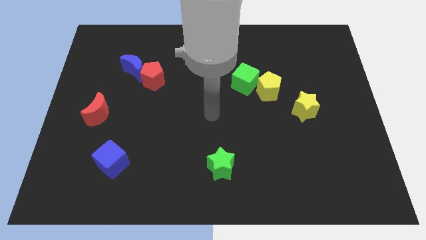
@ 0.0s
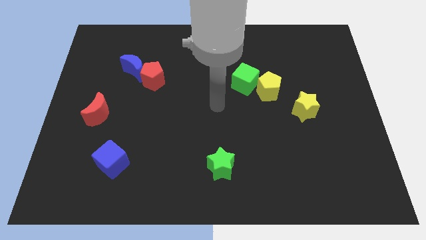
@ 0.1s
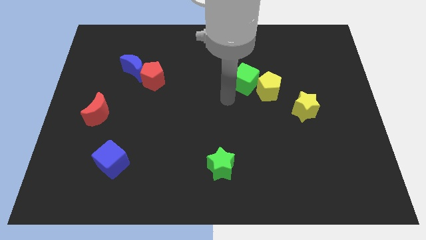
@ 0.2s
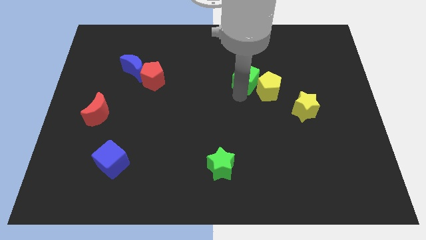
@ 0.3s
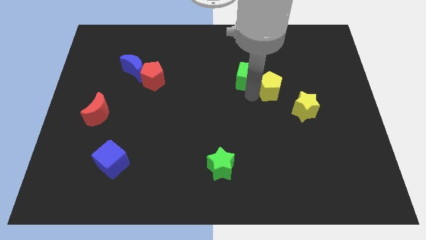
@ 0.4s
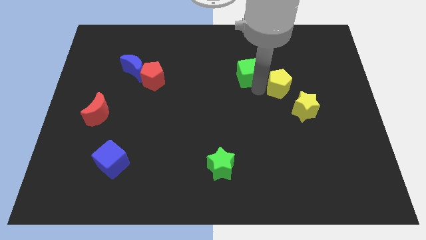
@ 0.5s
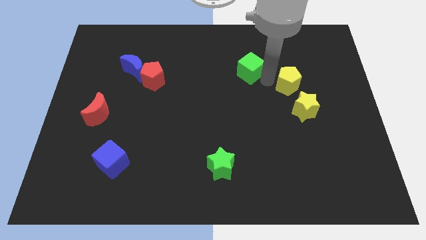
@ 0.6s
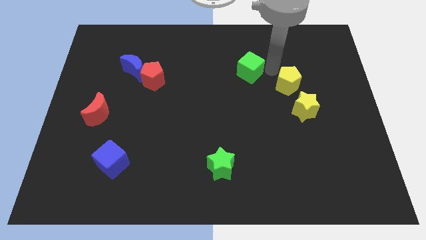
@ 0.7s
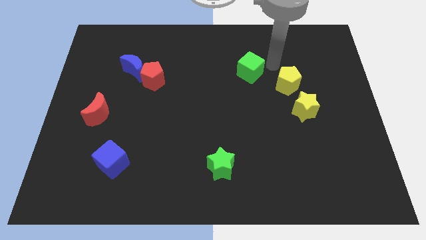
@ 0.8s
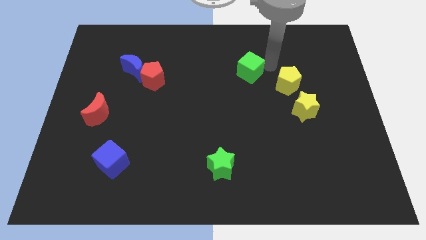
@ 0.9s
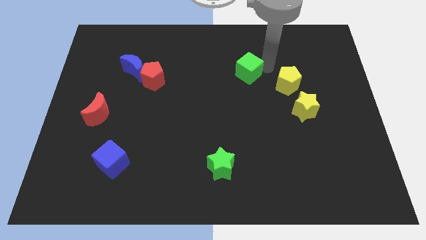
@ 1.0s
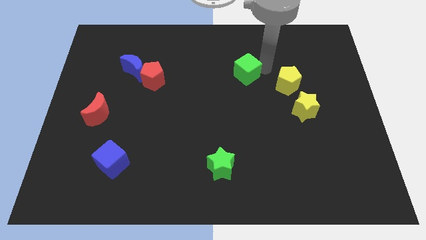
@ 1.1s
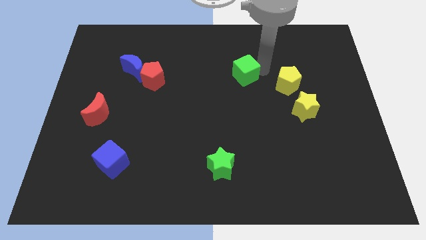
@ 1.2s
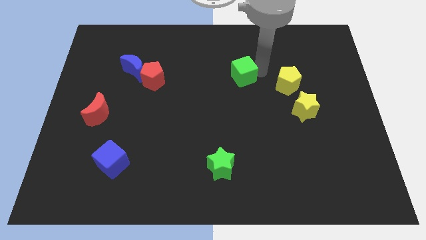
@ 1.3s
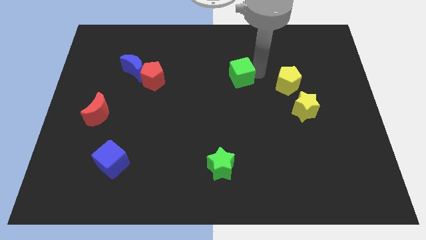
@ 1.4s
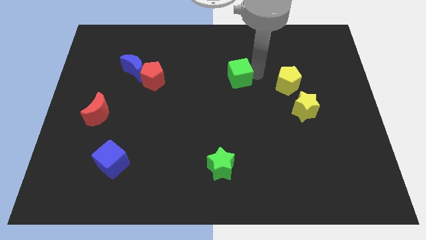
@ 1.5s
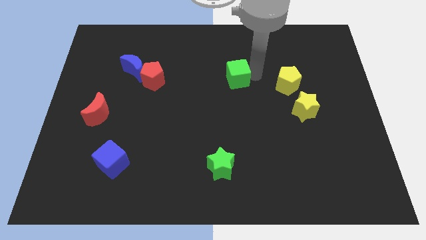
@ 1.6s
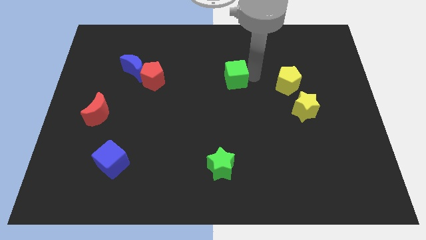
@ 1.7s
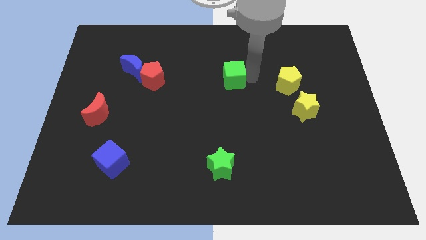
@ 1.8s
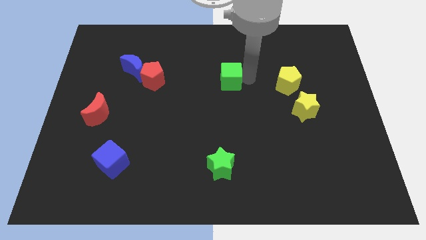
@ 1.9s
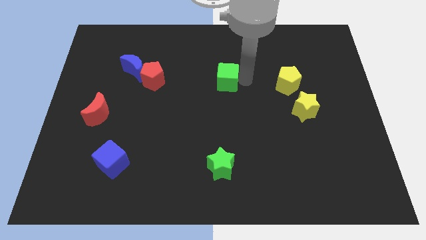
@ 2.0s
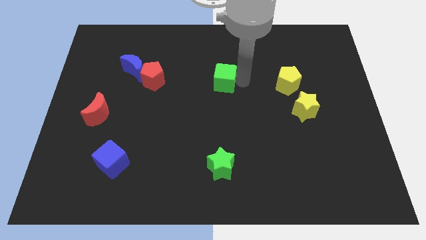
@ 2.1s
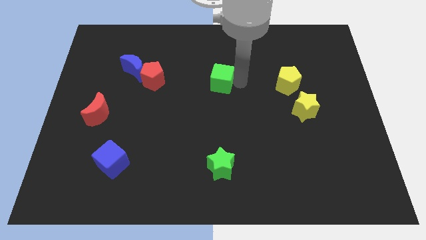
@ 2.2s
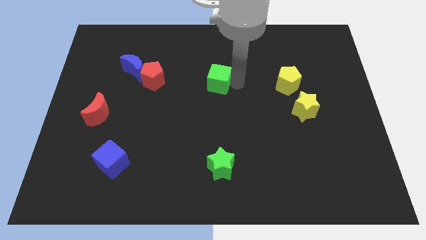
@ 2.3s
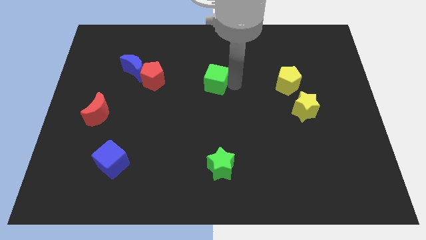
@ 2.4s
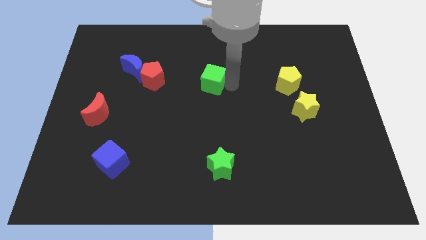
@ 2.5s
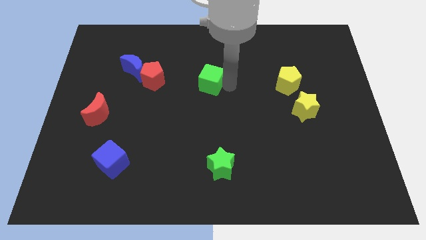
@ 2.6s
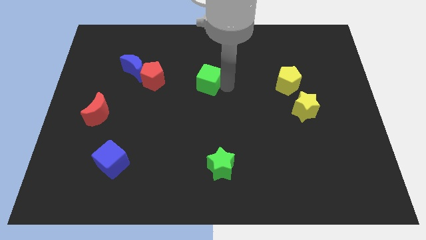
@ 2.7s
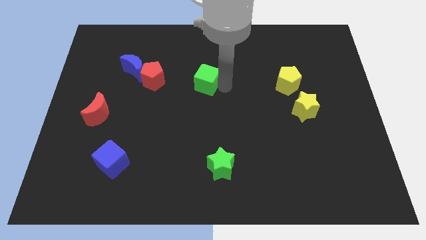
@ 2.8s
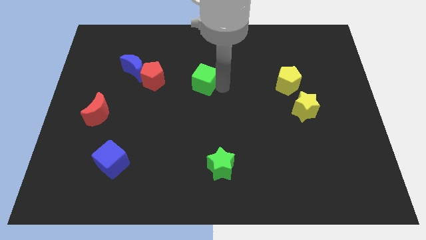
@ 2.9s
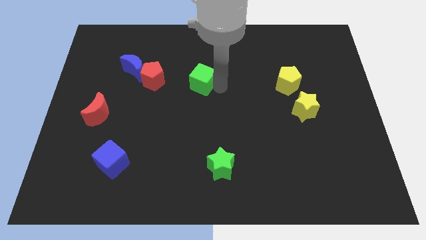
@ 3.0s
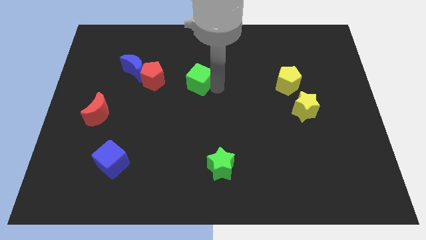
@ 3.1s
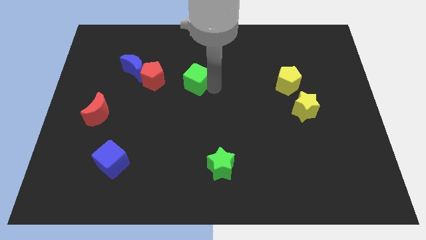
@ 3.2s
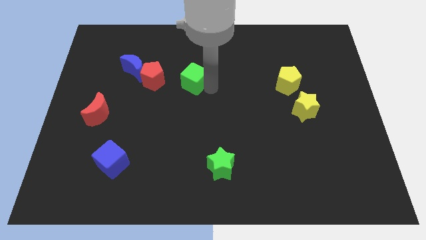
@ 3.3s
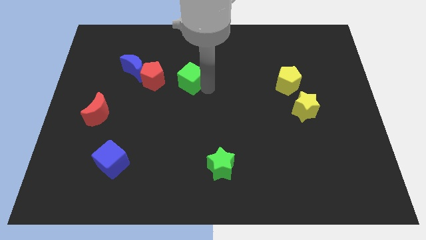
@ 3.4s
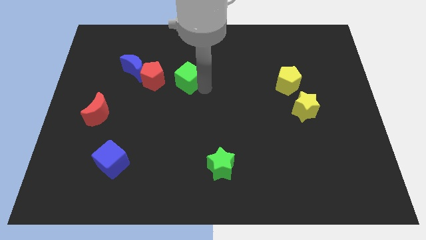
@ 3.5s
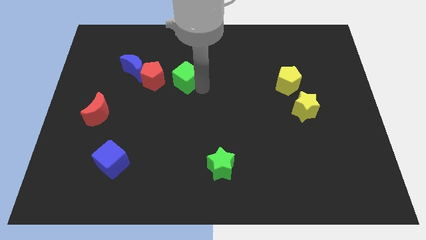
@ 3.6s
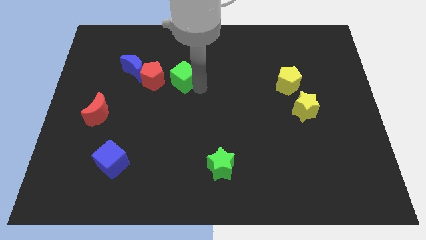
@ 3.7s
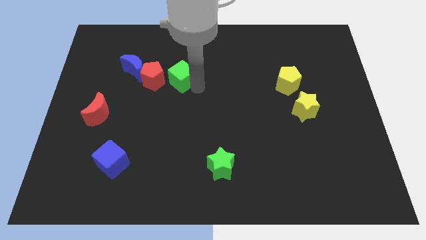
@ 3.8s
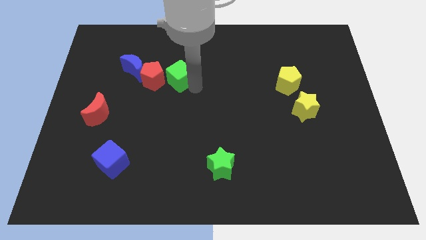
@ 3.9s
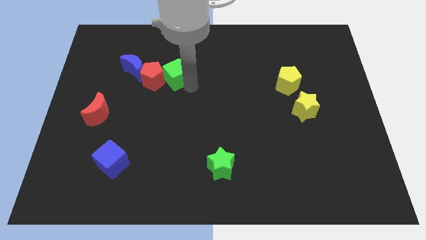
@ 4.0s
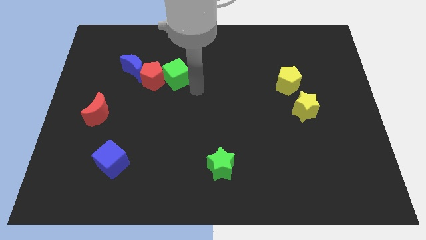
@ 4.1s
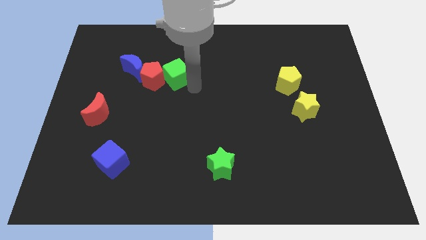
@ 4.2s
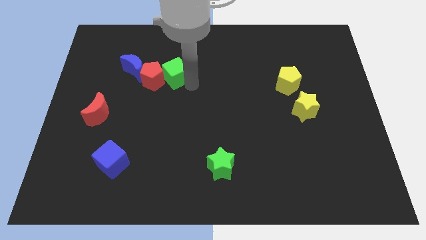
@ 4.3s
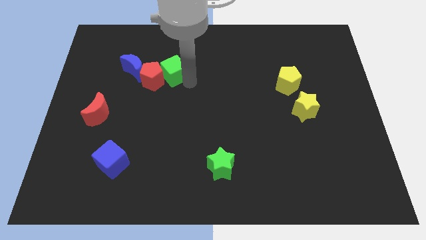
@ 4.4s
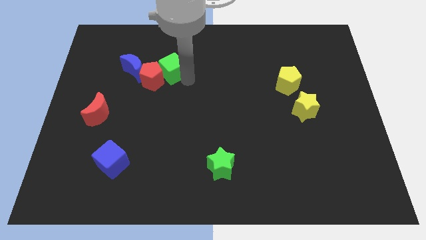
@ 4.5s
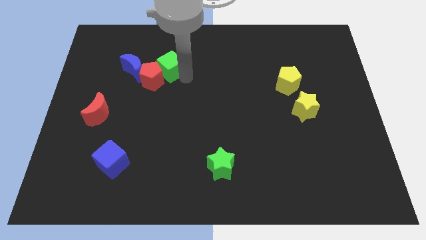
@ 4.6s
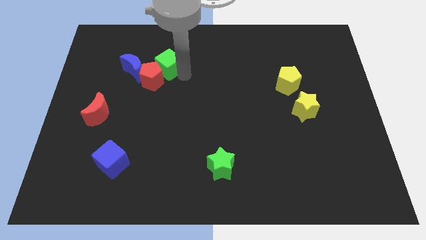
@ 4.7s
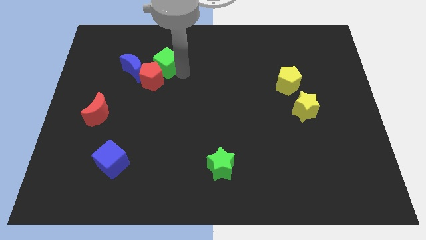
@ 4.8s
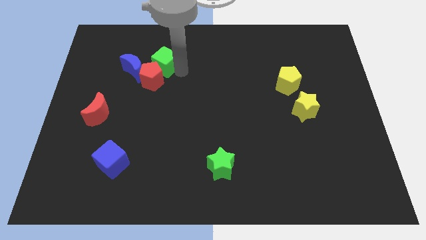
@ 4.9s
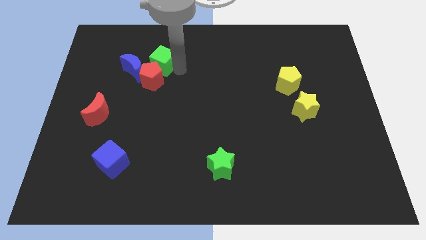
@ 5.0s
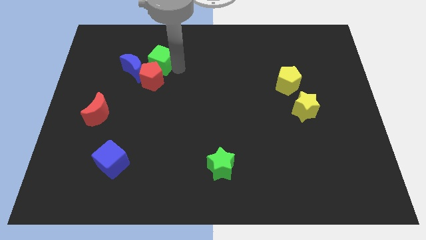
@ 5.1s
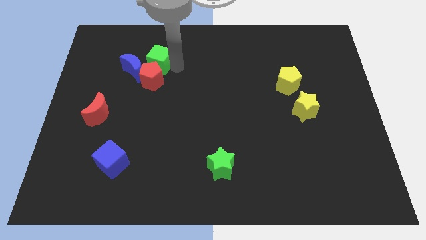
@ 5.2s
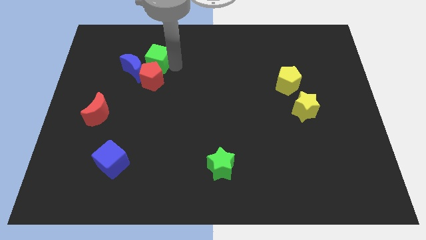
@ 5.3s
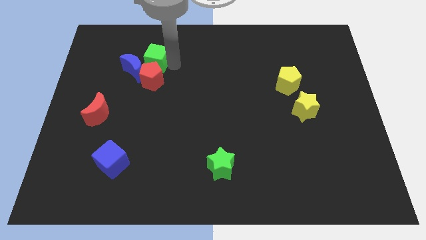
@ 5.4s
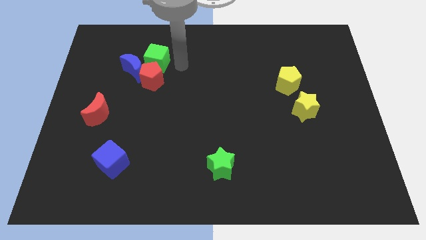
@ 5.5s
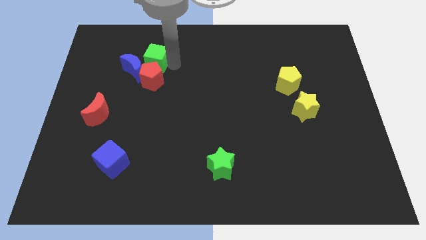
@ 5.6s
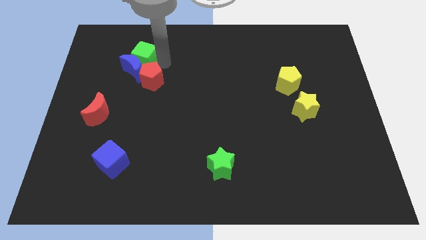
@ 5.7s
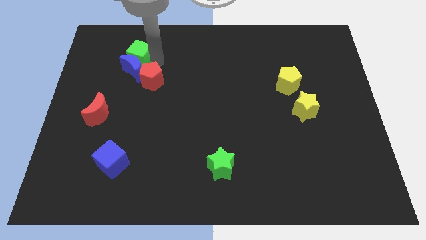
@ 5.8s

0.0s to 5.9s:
slide the green cube to the top left side of the blue moon

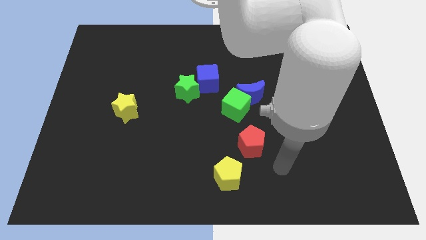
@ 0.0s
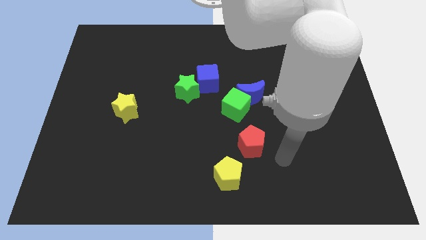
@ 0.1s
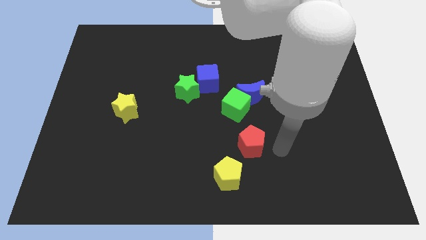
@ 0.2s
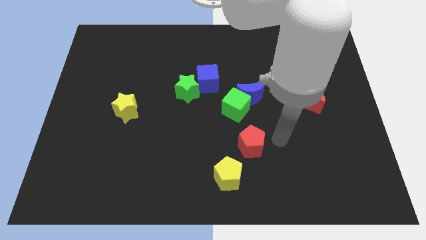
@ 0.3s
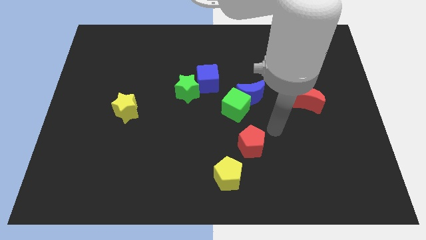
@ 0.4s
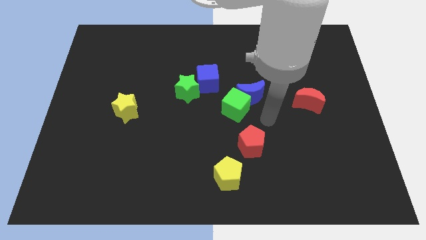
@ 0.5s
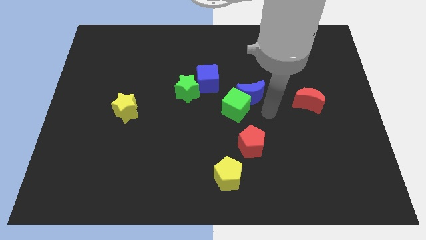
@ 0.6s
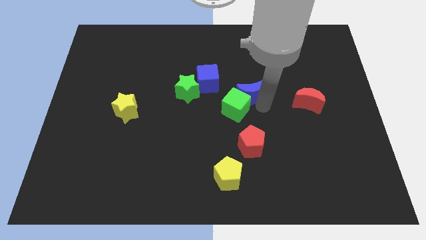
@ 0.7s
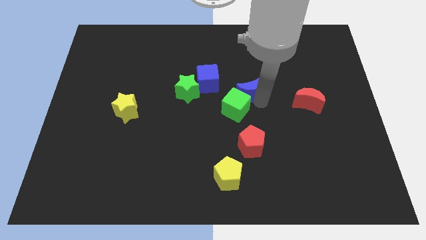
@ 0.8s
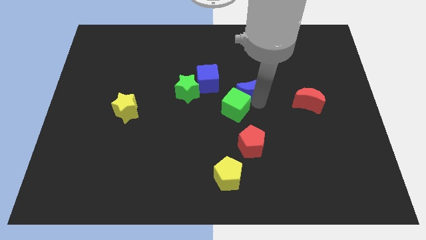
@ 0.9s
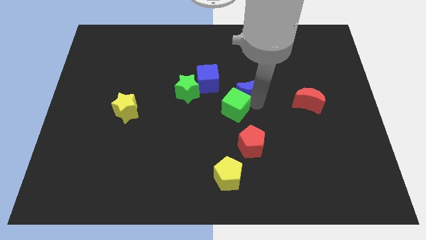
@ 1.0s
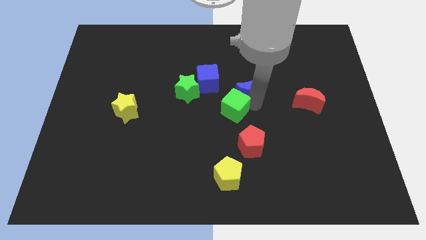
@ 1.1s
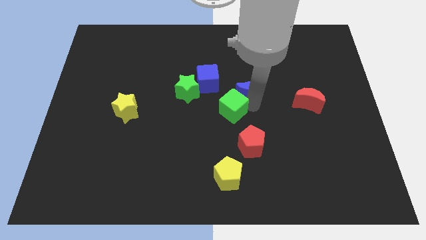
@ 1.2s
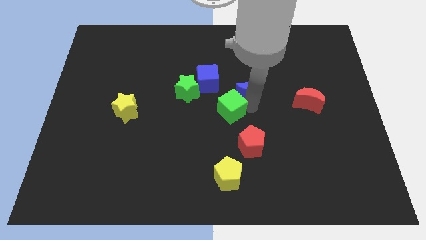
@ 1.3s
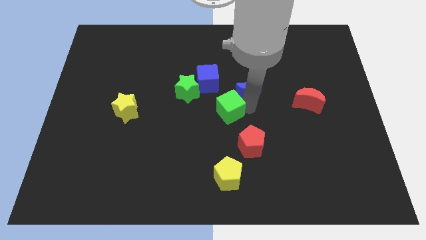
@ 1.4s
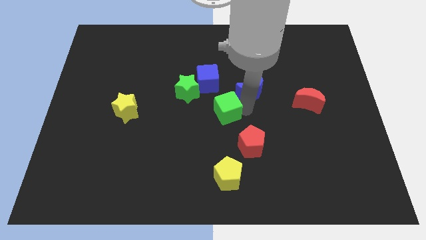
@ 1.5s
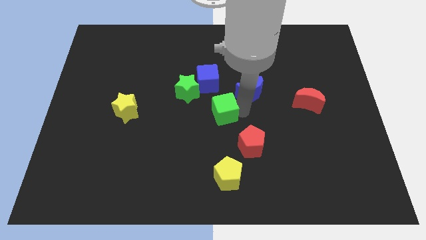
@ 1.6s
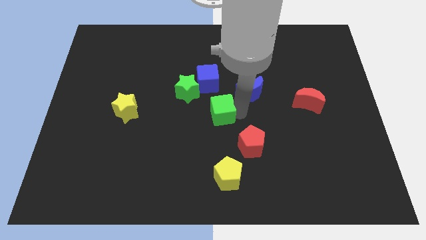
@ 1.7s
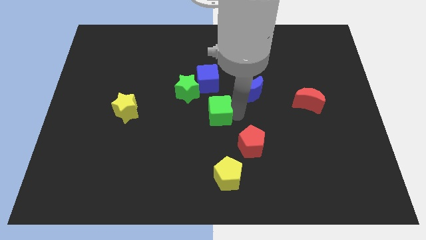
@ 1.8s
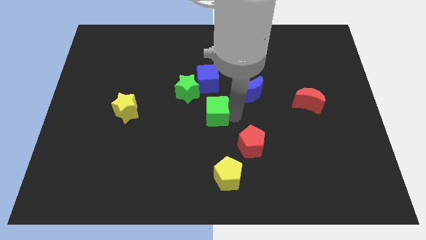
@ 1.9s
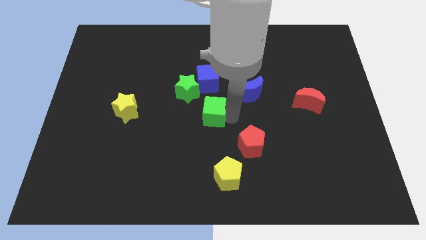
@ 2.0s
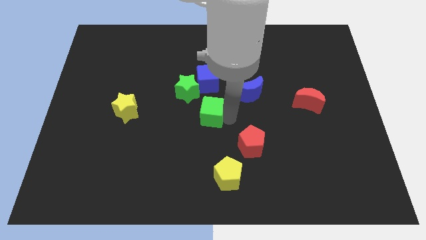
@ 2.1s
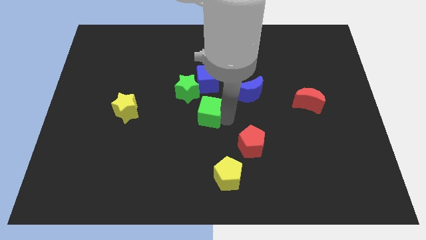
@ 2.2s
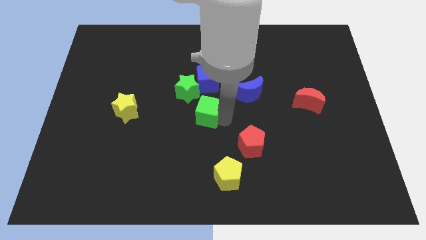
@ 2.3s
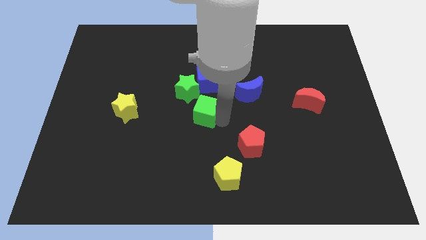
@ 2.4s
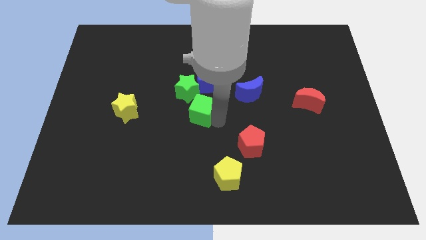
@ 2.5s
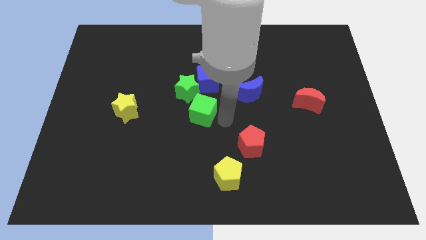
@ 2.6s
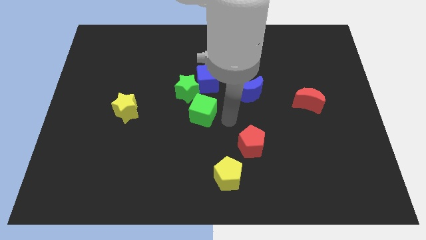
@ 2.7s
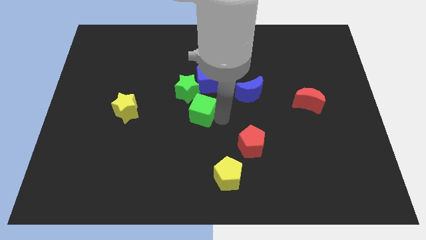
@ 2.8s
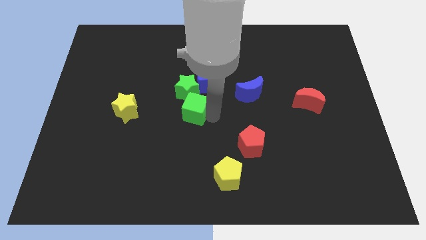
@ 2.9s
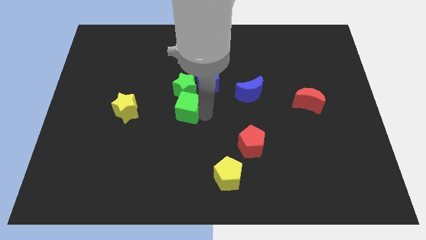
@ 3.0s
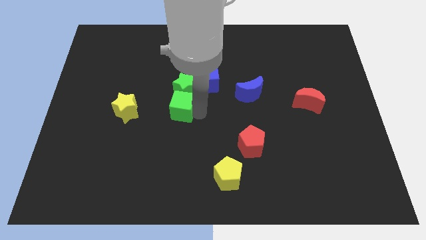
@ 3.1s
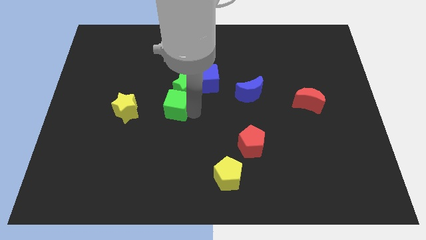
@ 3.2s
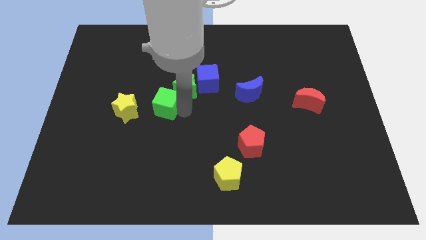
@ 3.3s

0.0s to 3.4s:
push the green cube to the left of the green star
